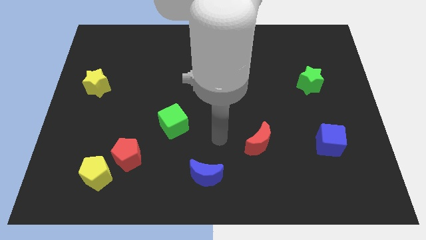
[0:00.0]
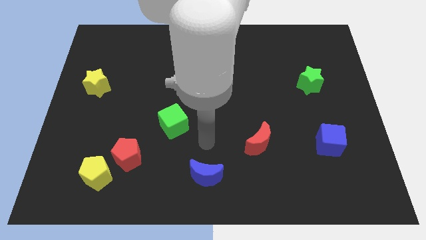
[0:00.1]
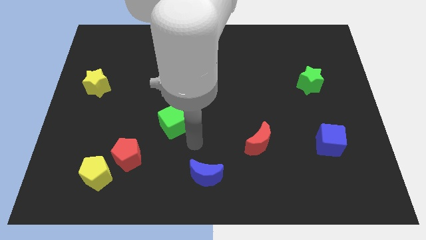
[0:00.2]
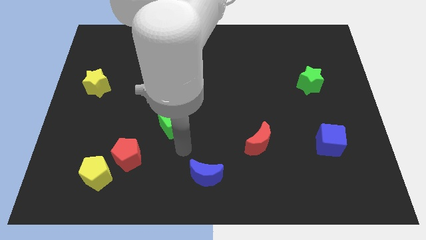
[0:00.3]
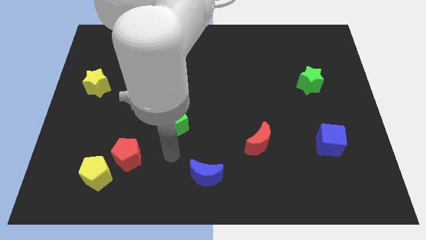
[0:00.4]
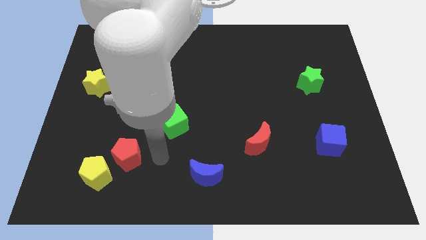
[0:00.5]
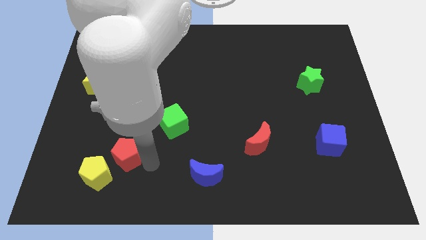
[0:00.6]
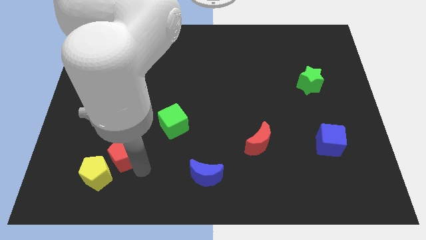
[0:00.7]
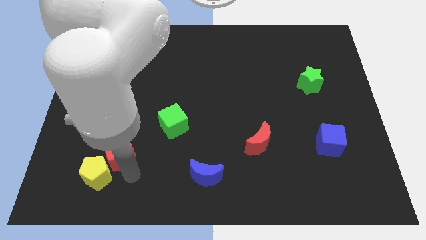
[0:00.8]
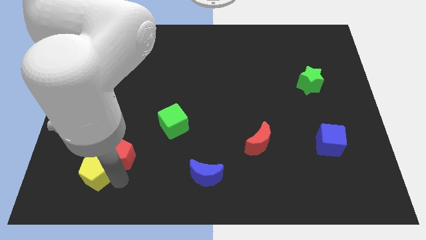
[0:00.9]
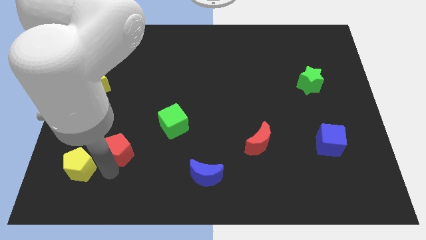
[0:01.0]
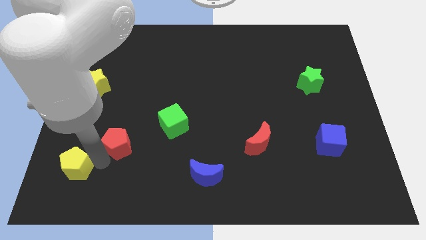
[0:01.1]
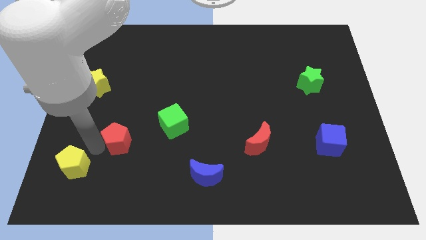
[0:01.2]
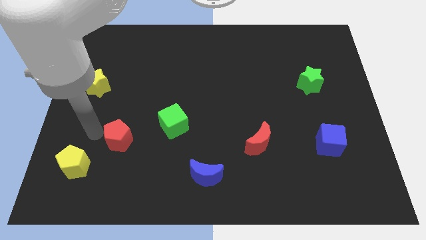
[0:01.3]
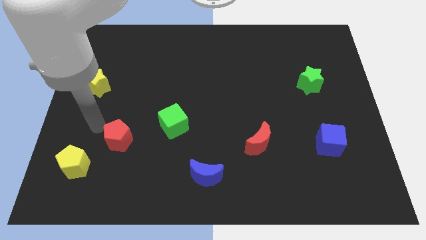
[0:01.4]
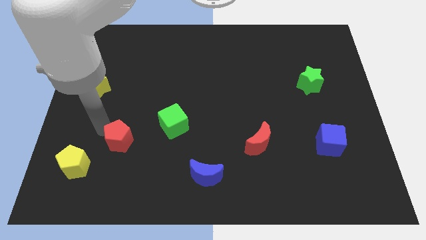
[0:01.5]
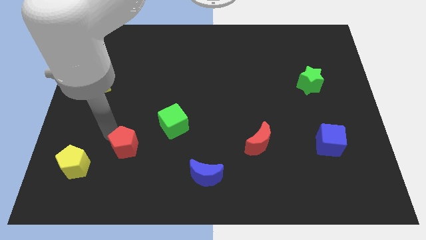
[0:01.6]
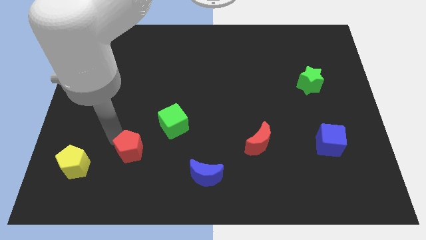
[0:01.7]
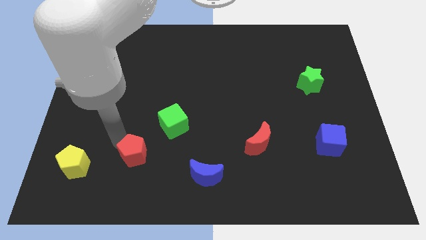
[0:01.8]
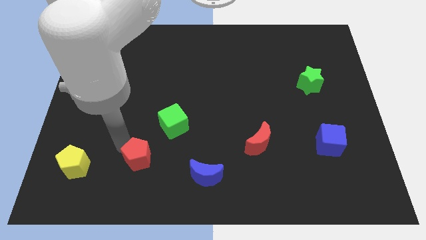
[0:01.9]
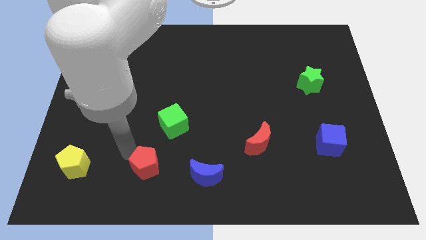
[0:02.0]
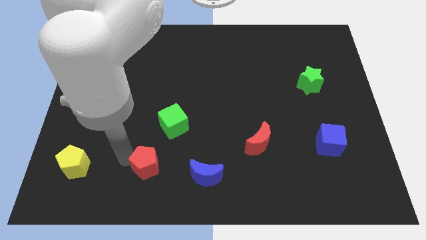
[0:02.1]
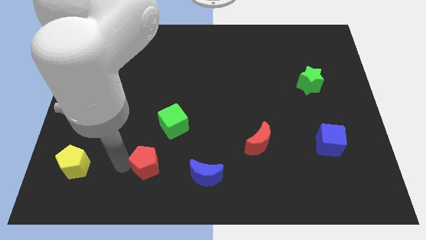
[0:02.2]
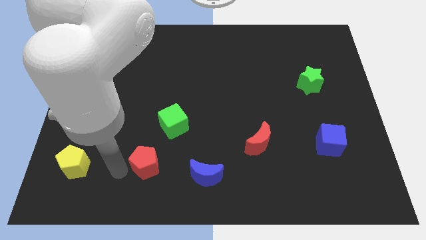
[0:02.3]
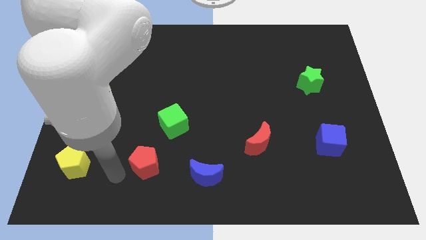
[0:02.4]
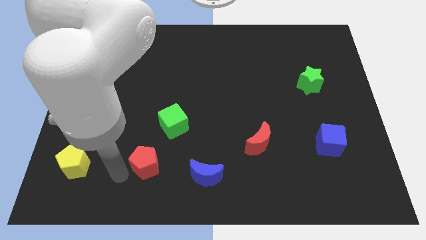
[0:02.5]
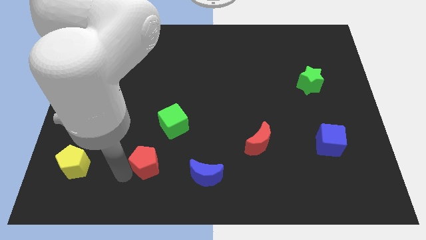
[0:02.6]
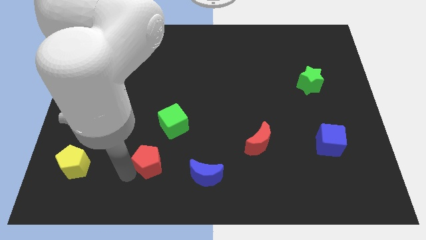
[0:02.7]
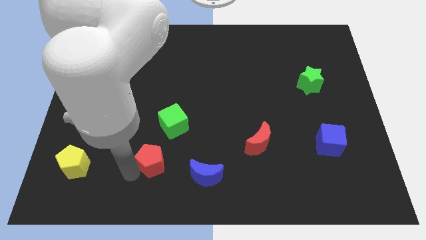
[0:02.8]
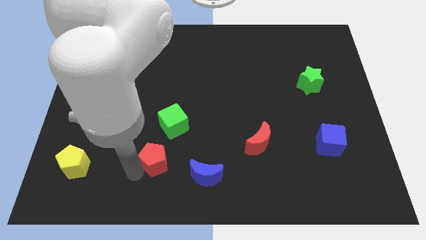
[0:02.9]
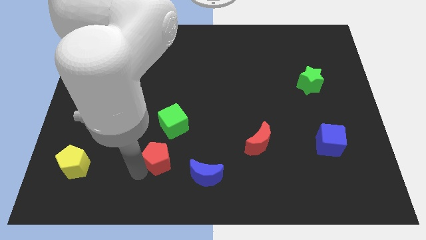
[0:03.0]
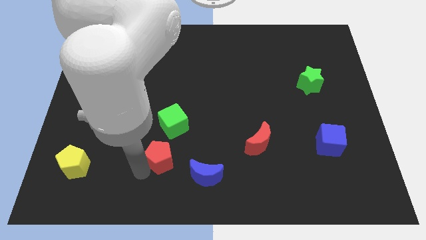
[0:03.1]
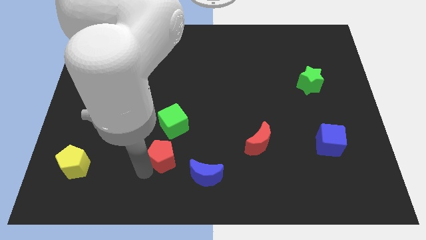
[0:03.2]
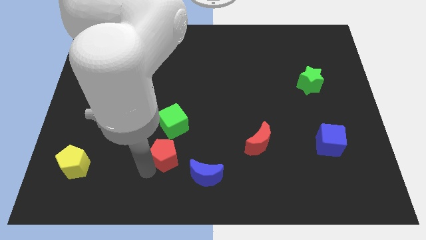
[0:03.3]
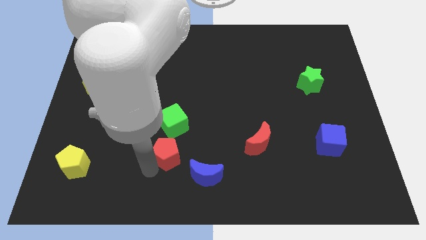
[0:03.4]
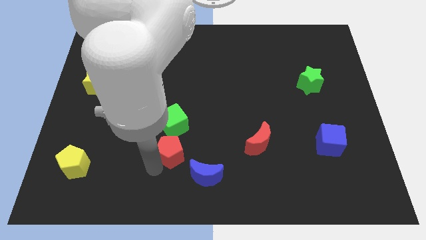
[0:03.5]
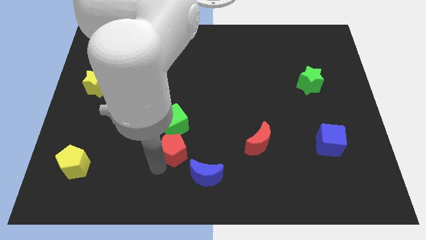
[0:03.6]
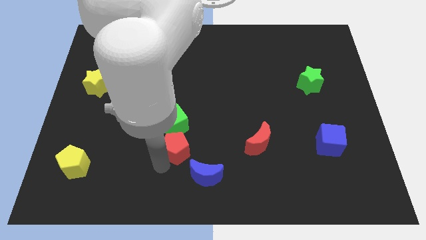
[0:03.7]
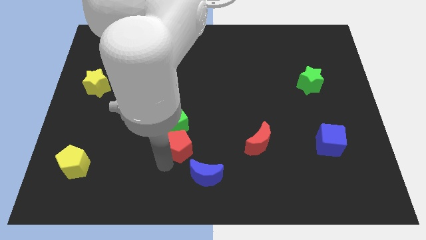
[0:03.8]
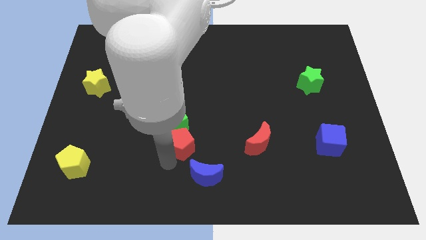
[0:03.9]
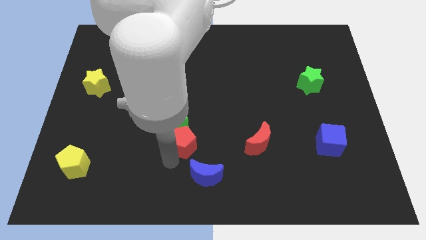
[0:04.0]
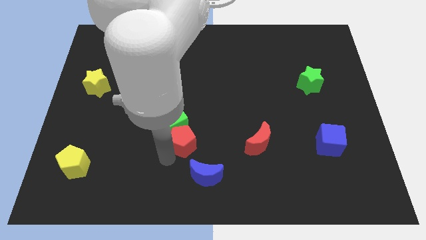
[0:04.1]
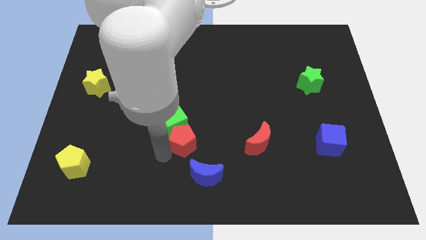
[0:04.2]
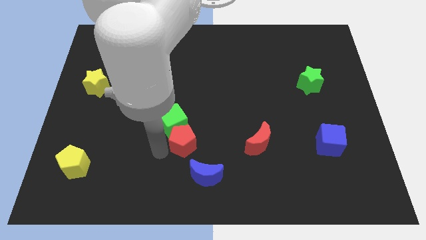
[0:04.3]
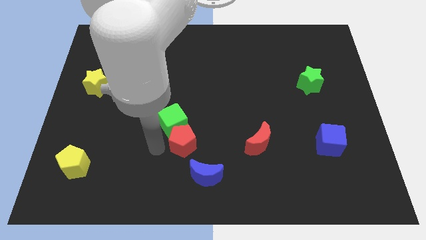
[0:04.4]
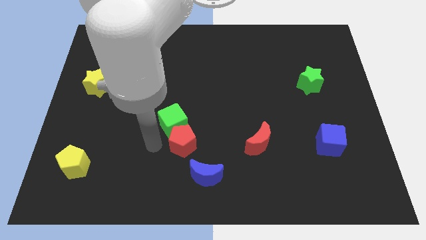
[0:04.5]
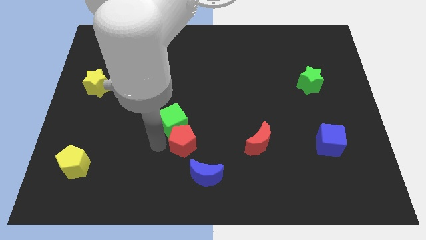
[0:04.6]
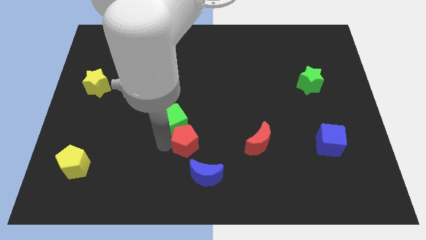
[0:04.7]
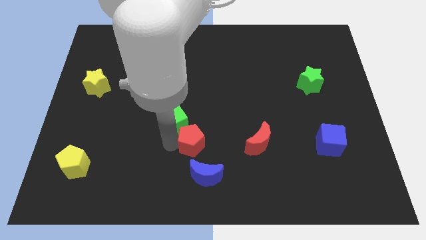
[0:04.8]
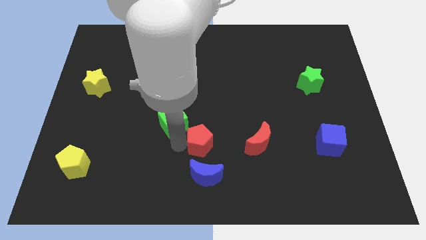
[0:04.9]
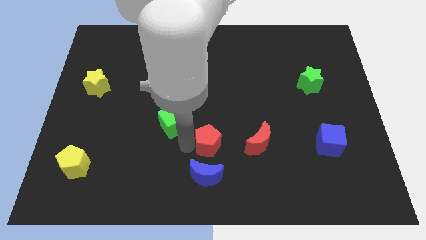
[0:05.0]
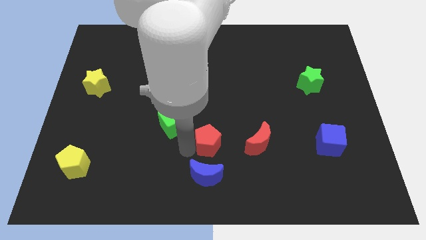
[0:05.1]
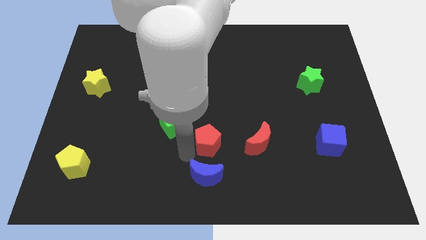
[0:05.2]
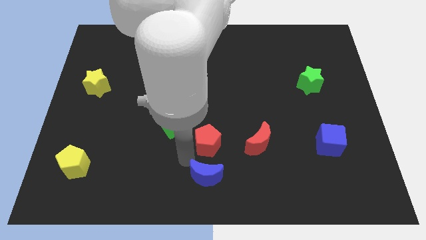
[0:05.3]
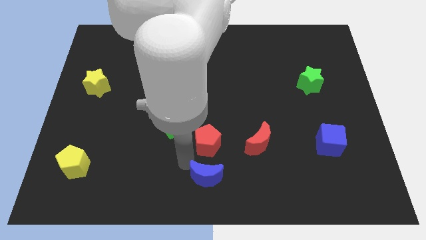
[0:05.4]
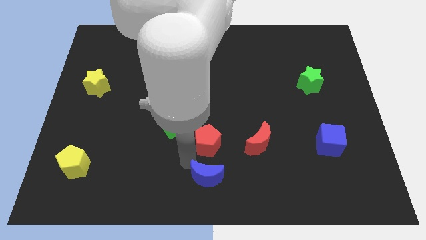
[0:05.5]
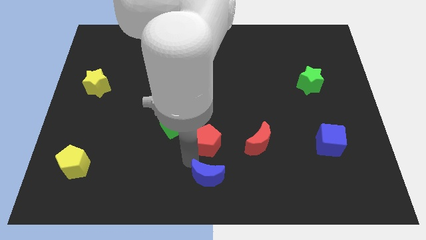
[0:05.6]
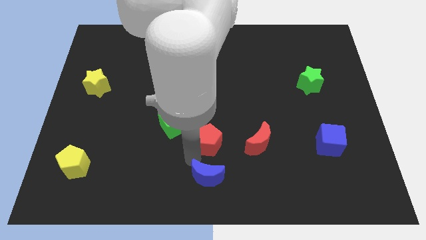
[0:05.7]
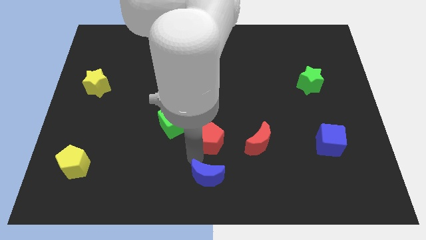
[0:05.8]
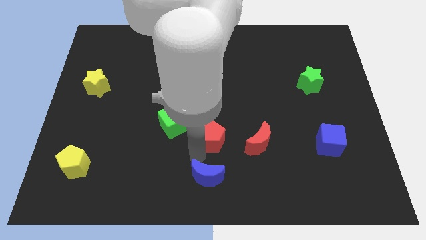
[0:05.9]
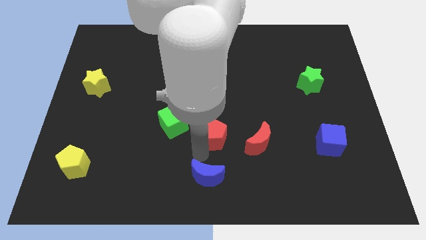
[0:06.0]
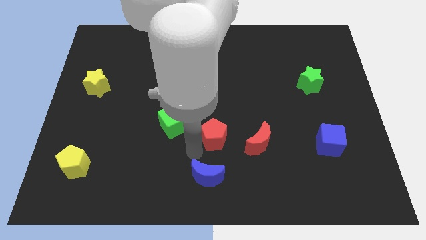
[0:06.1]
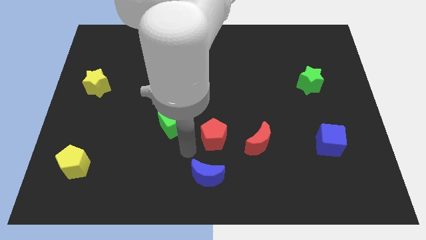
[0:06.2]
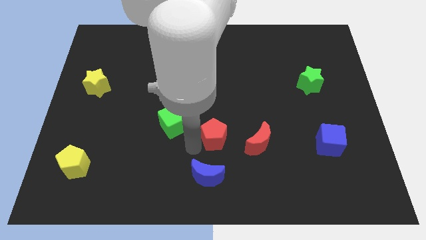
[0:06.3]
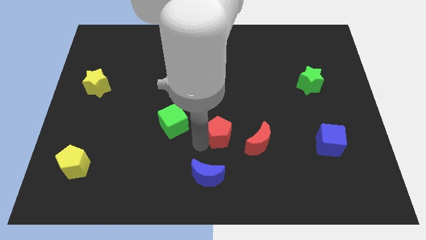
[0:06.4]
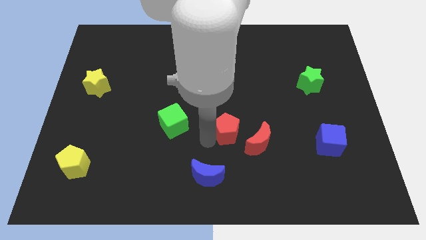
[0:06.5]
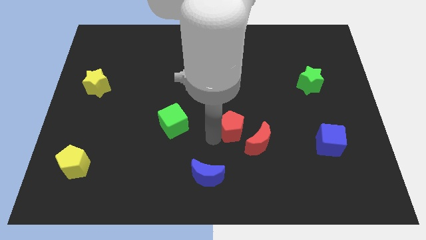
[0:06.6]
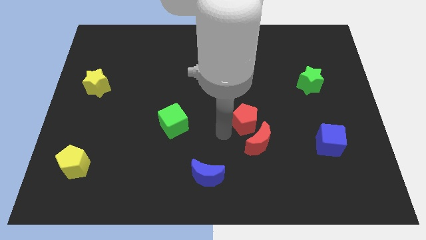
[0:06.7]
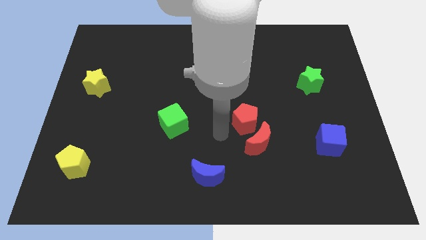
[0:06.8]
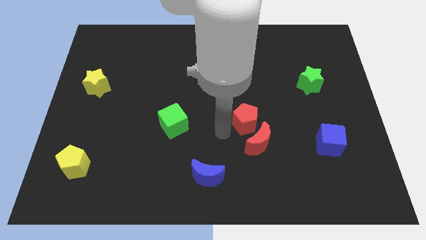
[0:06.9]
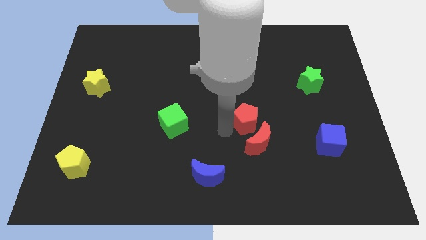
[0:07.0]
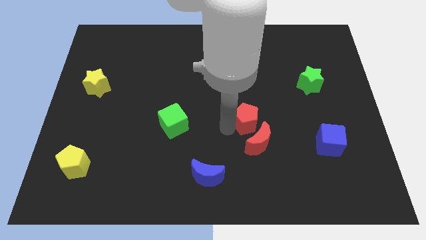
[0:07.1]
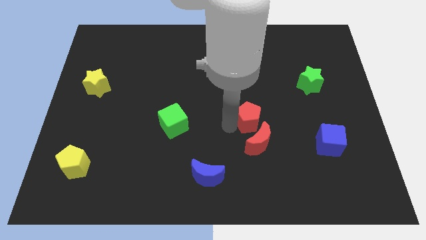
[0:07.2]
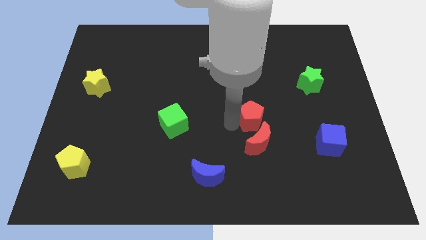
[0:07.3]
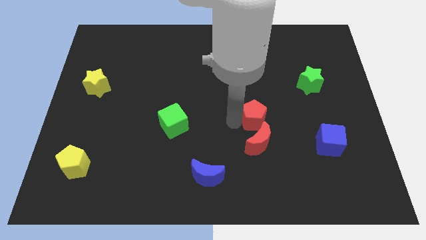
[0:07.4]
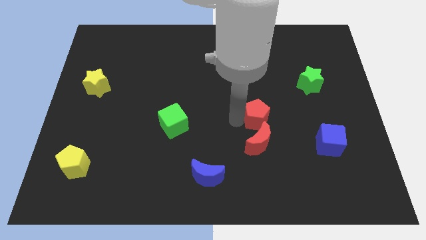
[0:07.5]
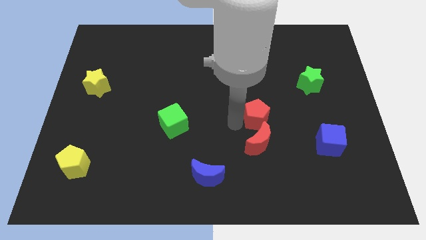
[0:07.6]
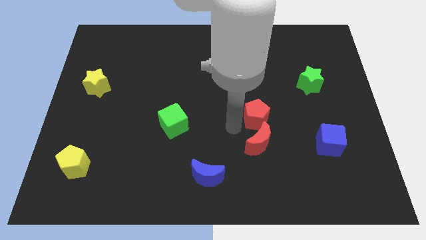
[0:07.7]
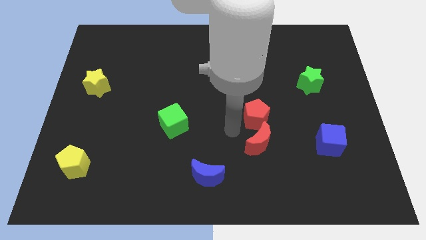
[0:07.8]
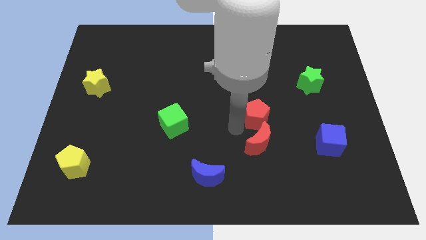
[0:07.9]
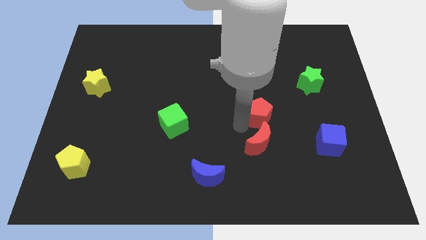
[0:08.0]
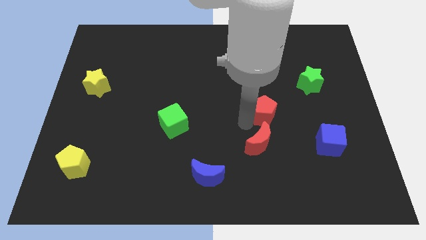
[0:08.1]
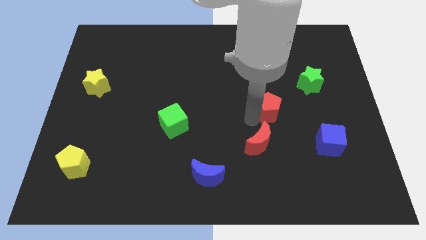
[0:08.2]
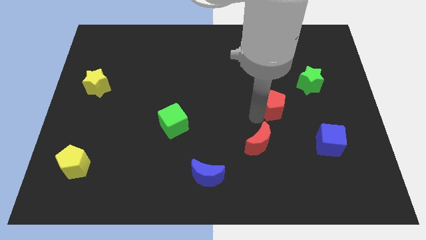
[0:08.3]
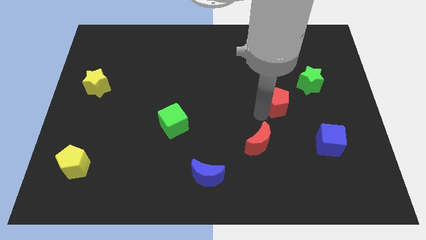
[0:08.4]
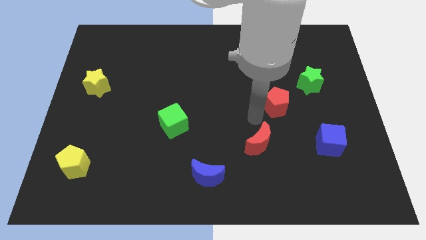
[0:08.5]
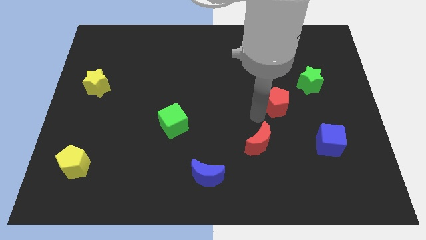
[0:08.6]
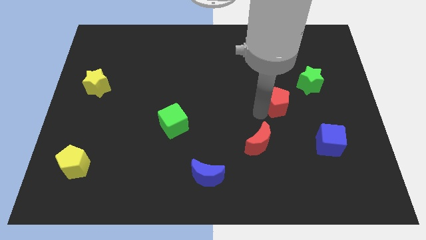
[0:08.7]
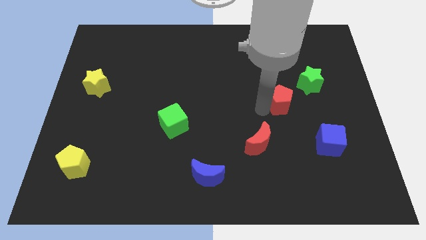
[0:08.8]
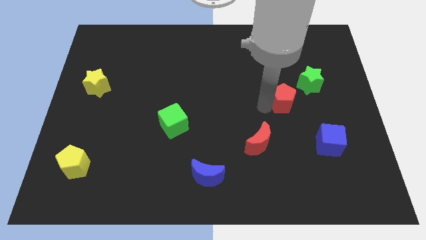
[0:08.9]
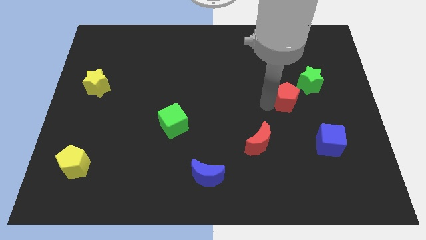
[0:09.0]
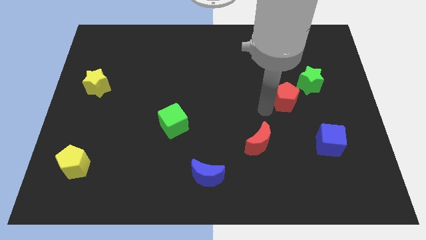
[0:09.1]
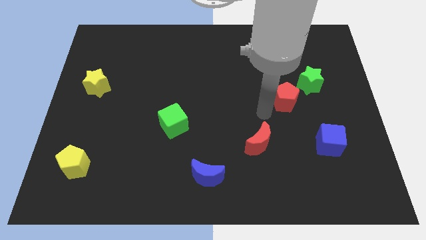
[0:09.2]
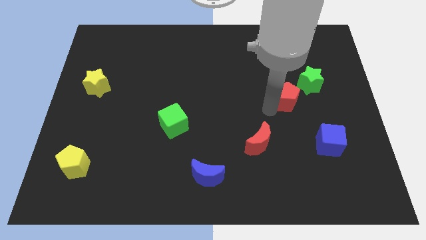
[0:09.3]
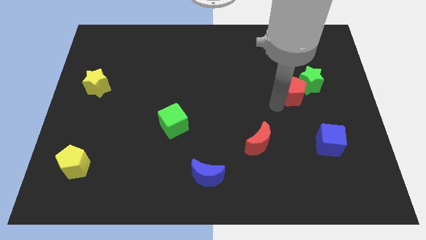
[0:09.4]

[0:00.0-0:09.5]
move the red pentagon to the green star
